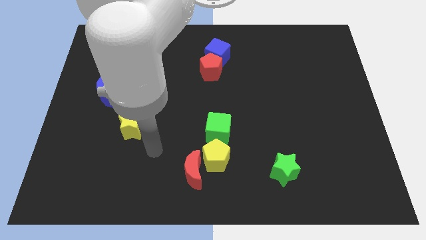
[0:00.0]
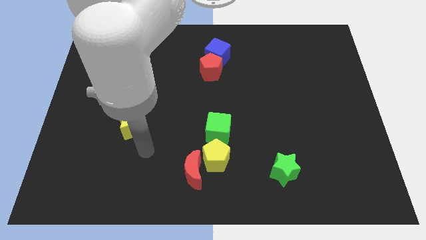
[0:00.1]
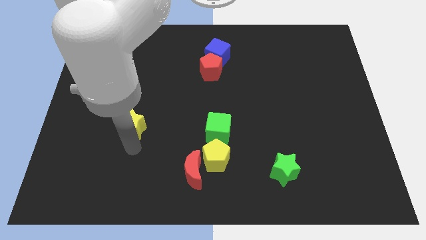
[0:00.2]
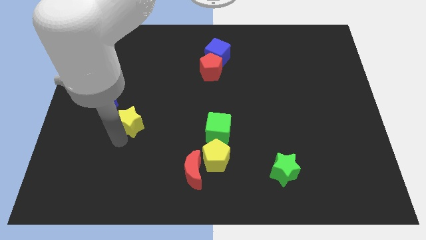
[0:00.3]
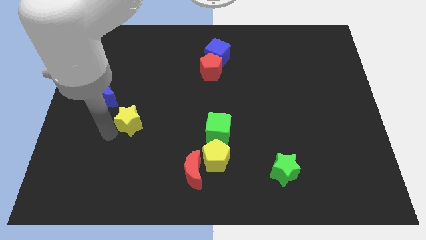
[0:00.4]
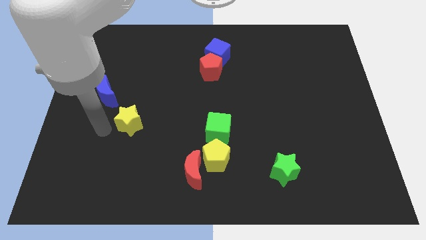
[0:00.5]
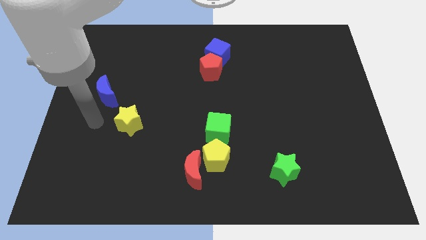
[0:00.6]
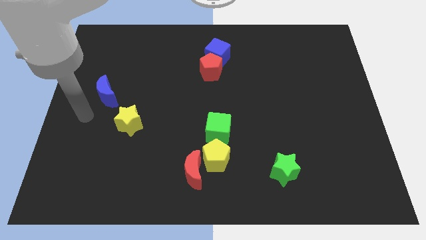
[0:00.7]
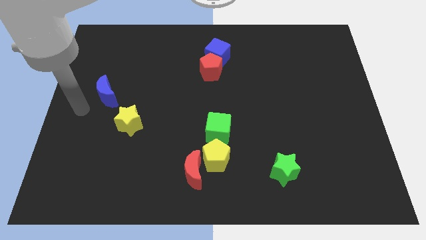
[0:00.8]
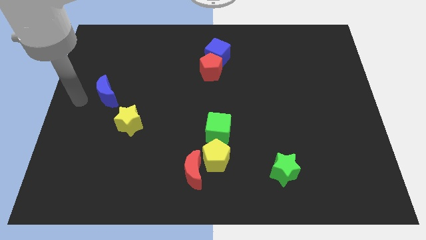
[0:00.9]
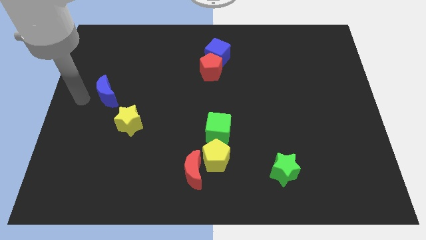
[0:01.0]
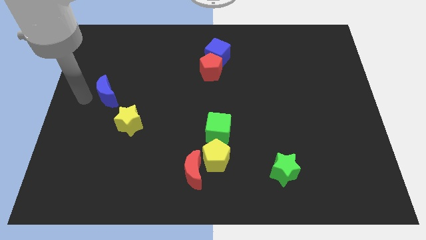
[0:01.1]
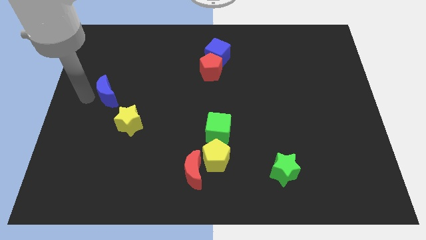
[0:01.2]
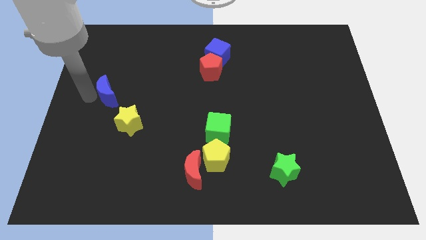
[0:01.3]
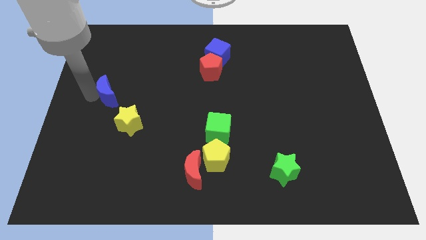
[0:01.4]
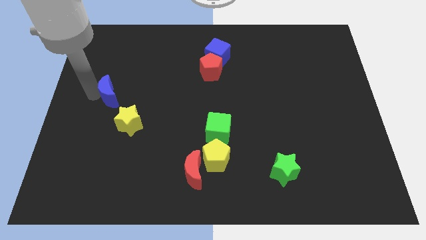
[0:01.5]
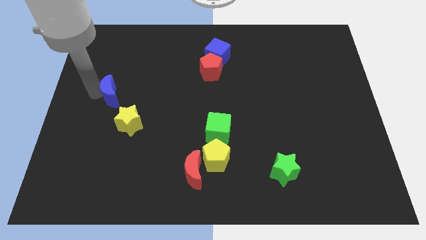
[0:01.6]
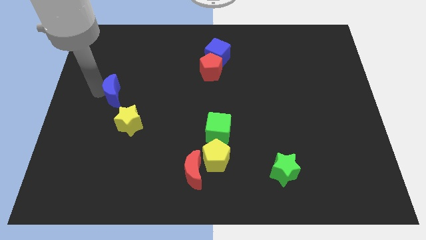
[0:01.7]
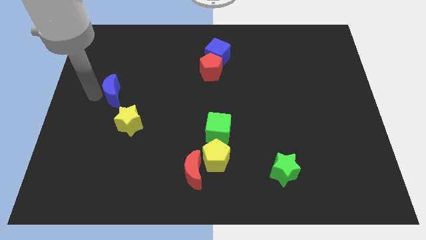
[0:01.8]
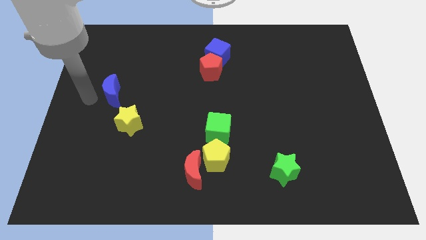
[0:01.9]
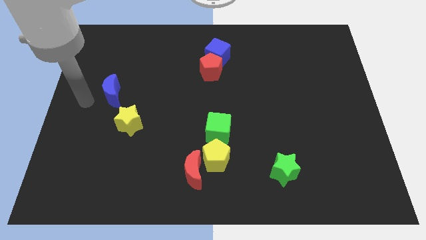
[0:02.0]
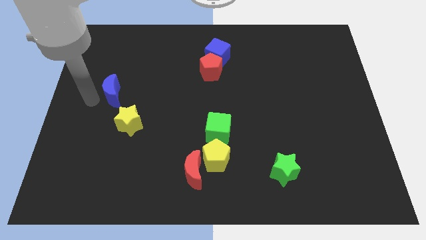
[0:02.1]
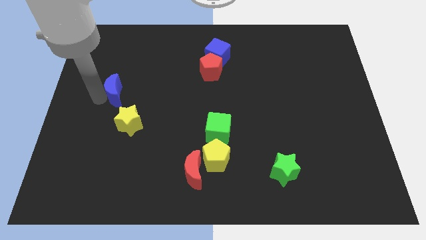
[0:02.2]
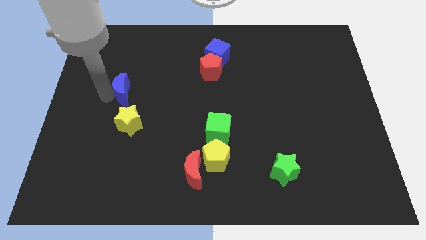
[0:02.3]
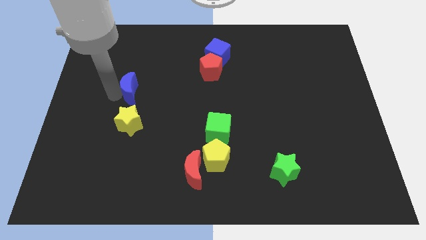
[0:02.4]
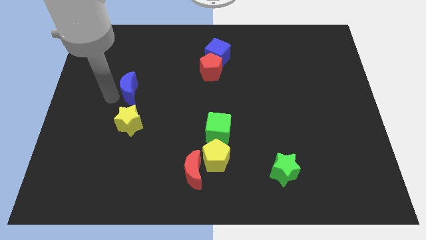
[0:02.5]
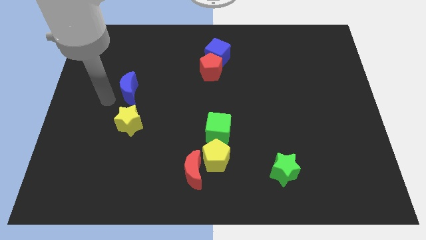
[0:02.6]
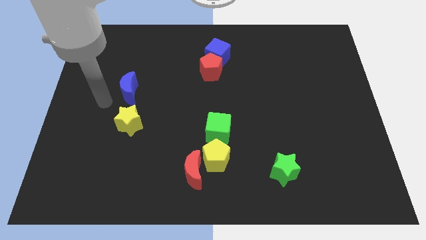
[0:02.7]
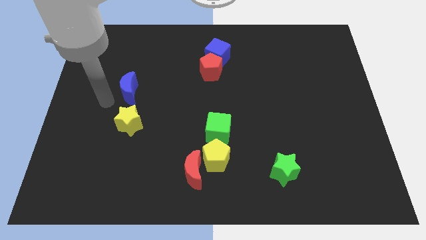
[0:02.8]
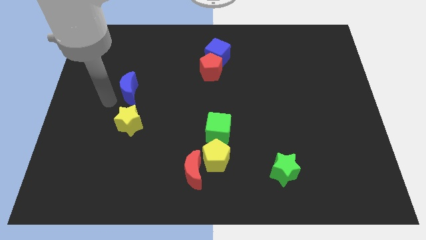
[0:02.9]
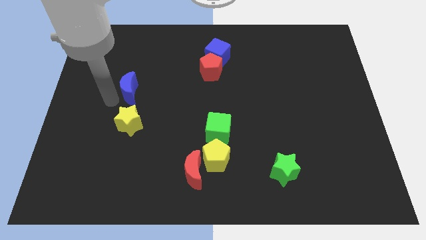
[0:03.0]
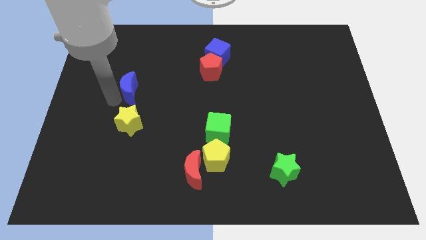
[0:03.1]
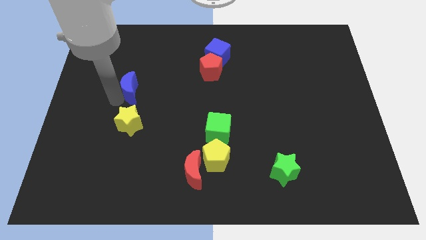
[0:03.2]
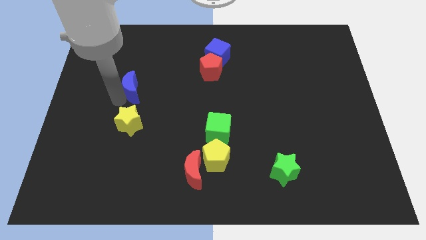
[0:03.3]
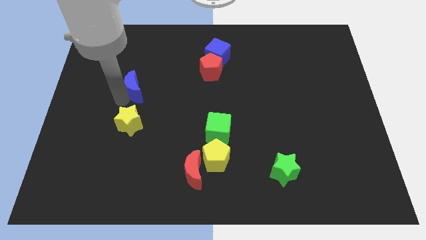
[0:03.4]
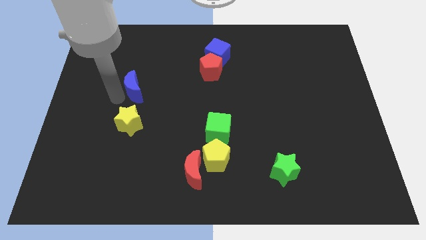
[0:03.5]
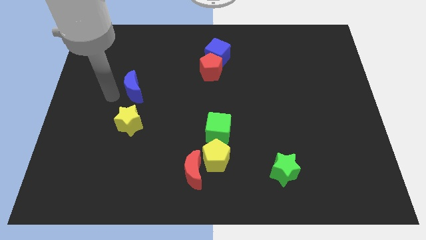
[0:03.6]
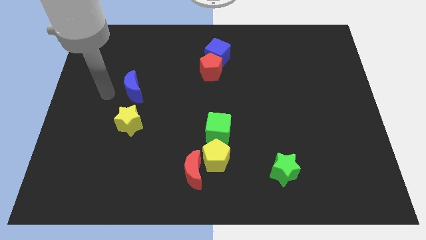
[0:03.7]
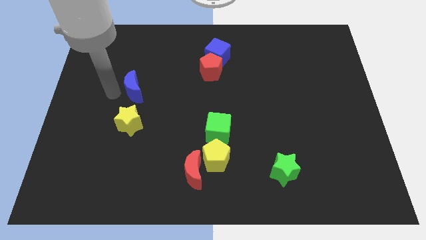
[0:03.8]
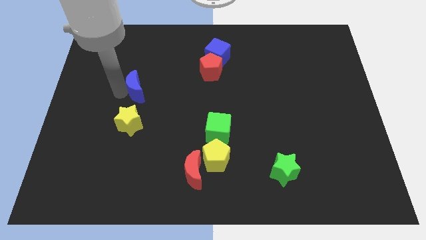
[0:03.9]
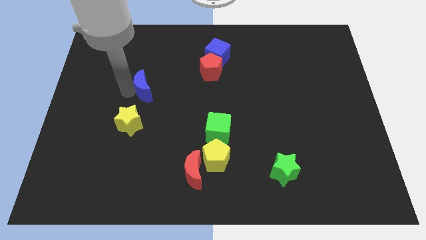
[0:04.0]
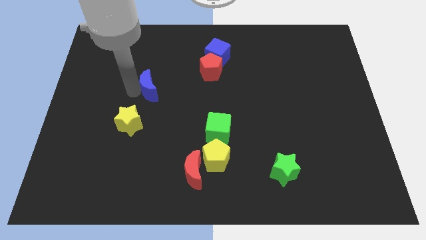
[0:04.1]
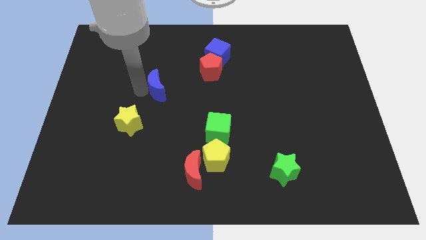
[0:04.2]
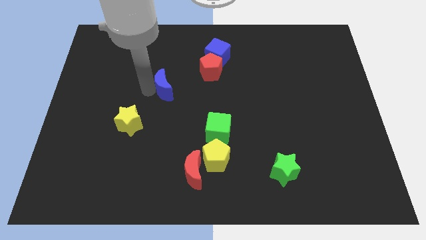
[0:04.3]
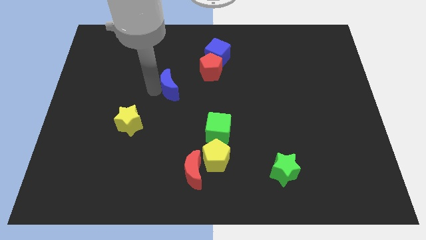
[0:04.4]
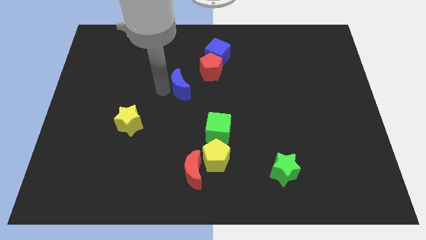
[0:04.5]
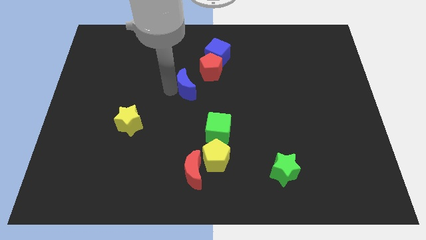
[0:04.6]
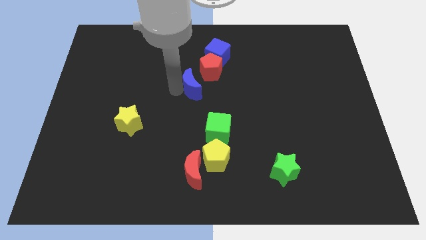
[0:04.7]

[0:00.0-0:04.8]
slide the blue moon right

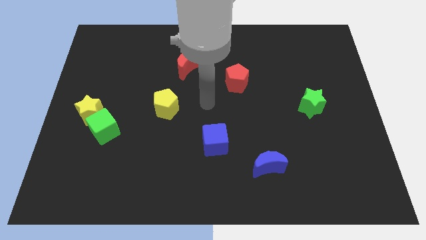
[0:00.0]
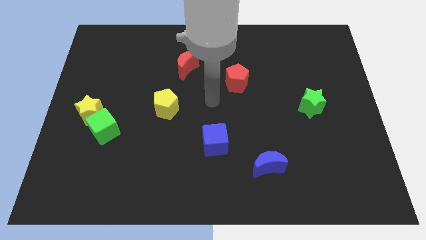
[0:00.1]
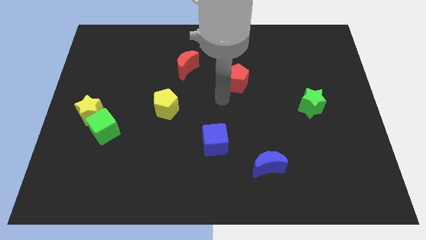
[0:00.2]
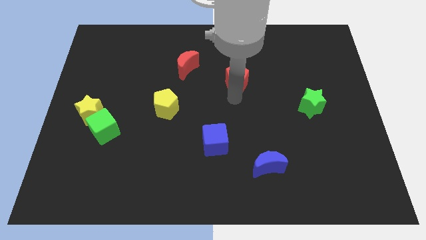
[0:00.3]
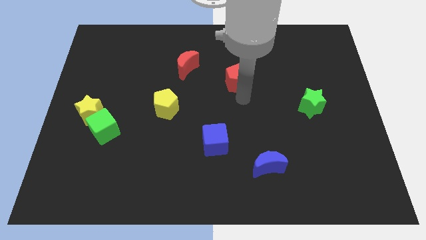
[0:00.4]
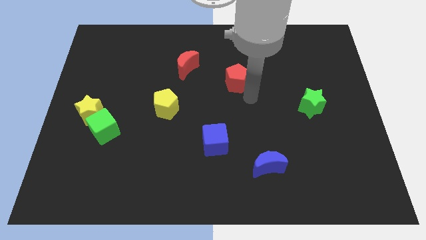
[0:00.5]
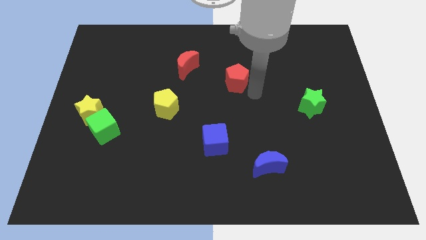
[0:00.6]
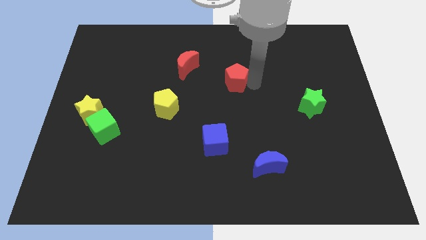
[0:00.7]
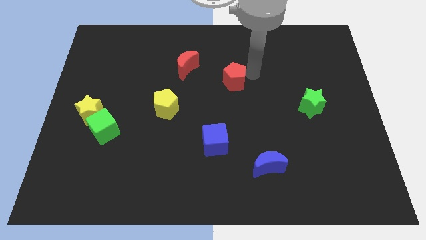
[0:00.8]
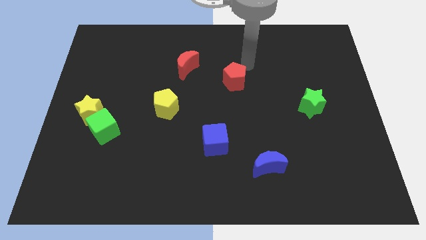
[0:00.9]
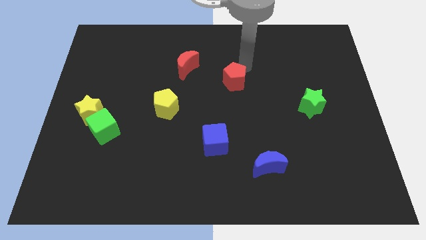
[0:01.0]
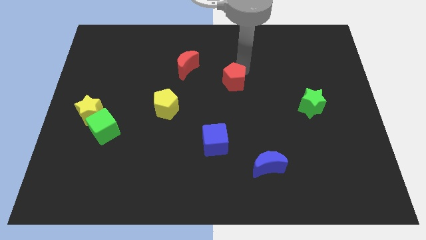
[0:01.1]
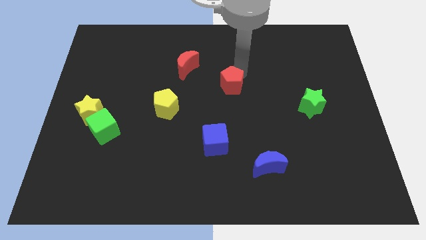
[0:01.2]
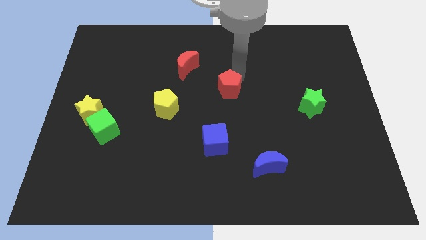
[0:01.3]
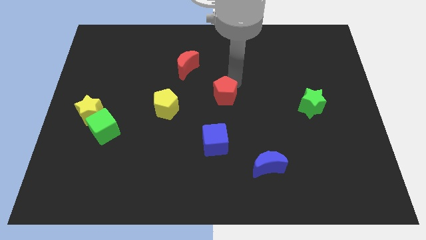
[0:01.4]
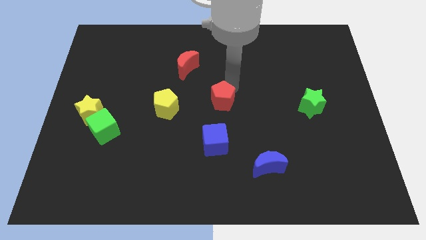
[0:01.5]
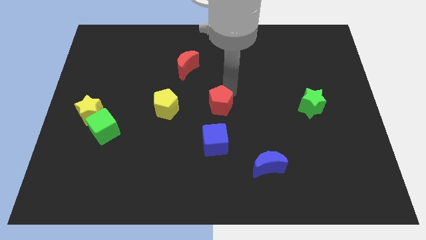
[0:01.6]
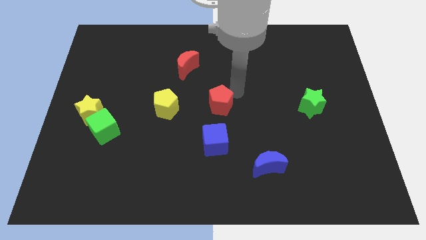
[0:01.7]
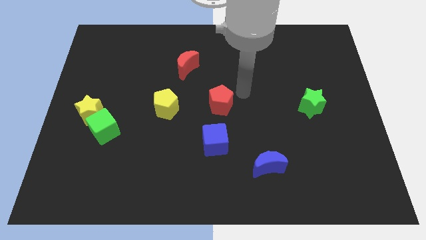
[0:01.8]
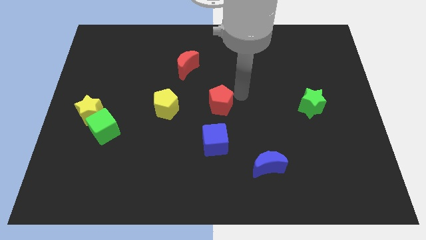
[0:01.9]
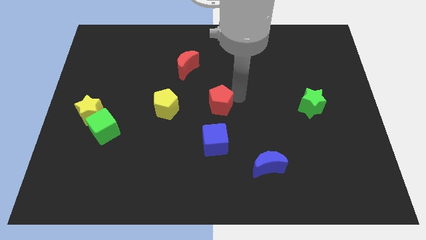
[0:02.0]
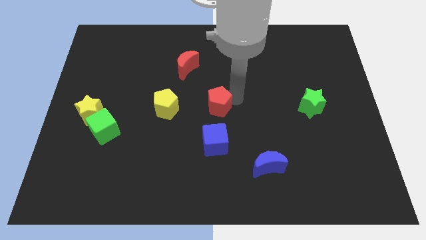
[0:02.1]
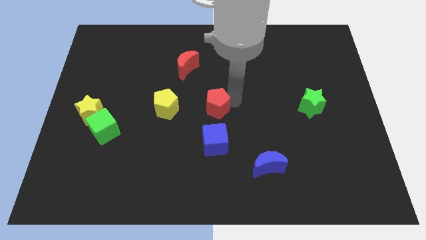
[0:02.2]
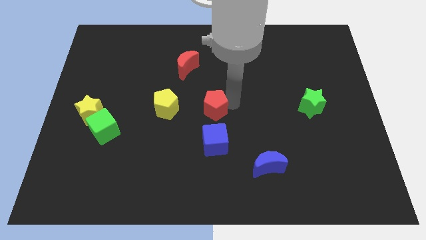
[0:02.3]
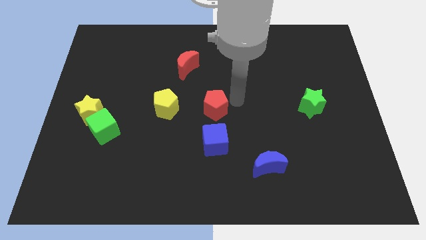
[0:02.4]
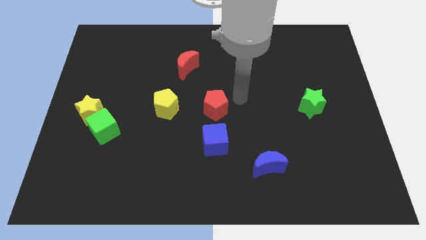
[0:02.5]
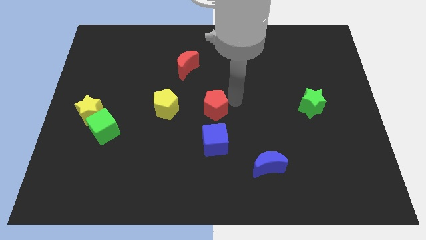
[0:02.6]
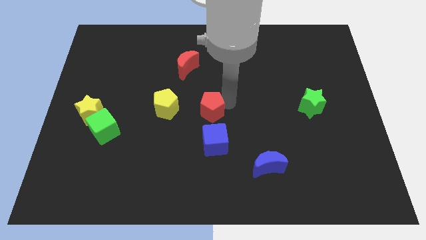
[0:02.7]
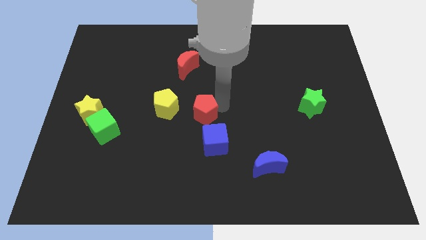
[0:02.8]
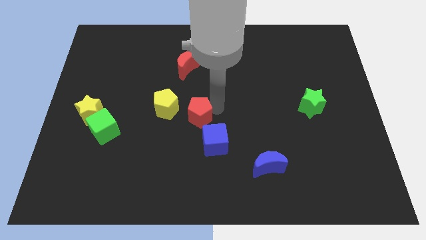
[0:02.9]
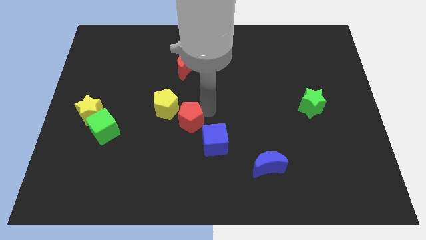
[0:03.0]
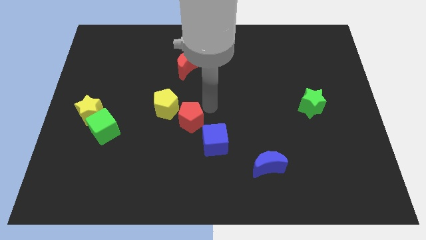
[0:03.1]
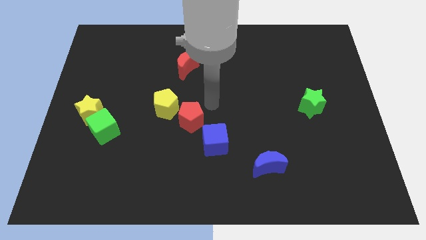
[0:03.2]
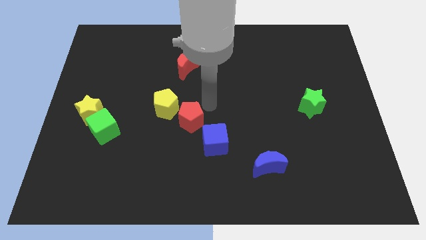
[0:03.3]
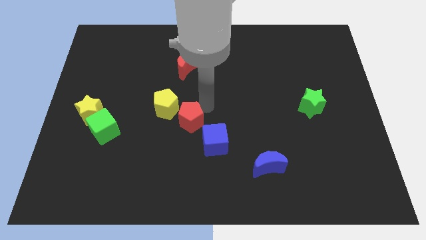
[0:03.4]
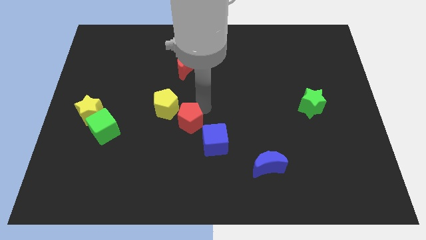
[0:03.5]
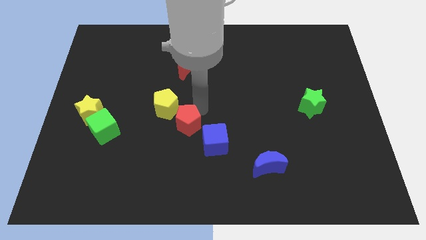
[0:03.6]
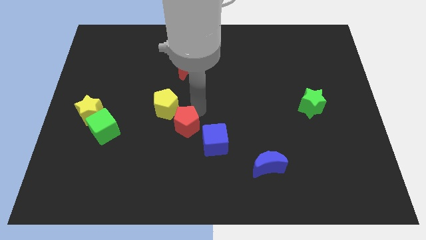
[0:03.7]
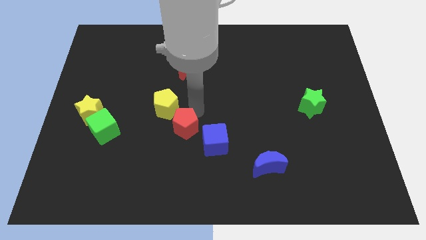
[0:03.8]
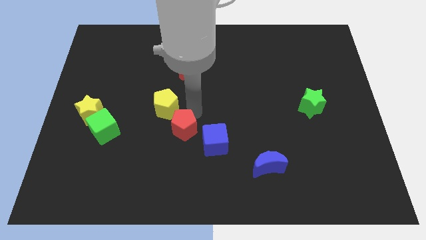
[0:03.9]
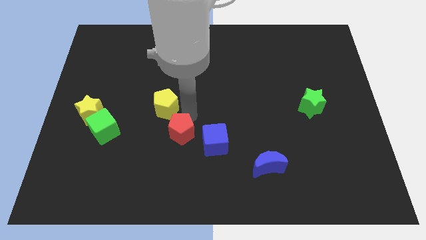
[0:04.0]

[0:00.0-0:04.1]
slide the red pentagon down and to the left
